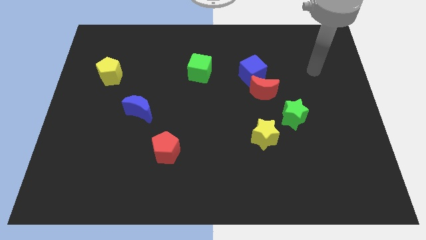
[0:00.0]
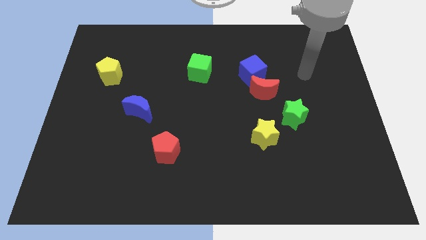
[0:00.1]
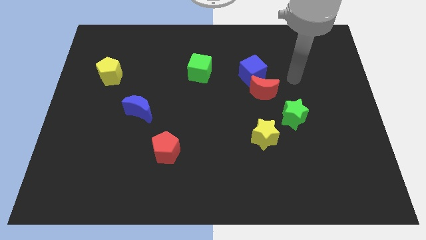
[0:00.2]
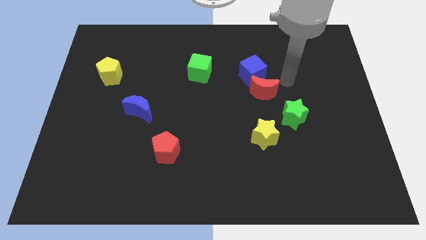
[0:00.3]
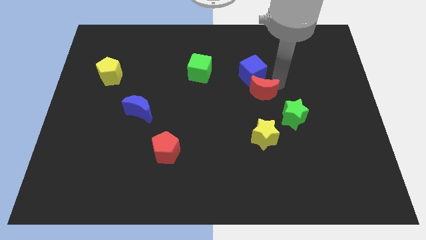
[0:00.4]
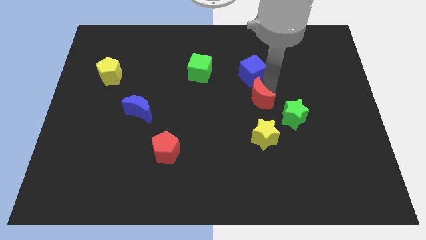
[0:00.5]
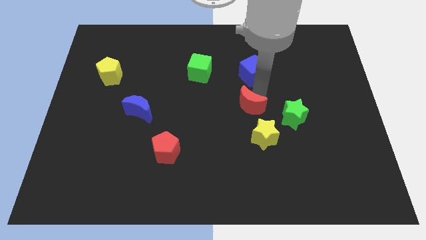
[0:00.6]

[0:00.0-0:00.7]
move the blue cube away from the red moon

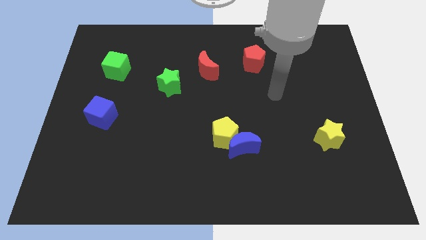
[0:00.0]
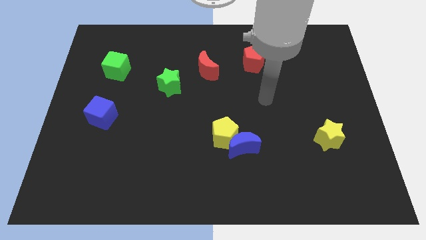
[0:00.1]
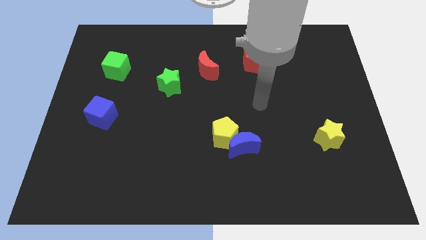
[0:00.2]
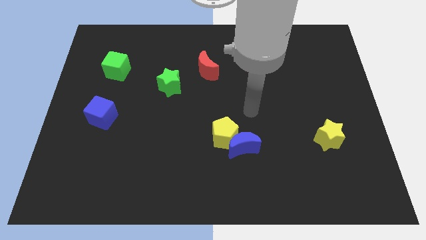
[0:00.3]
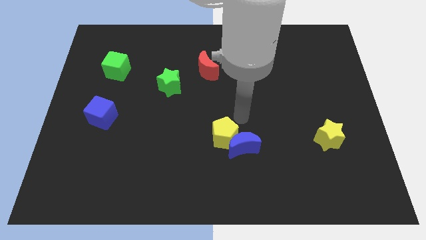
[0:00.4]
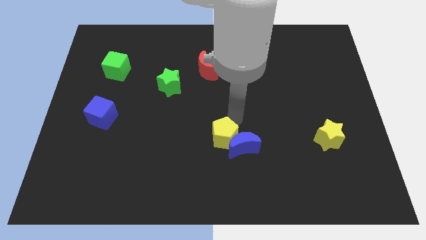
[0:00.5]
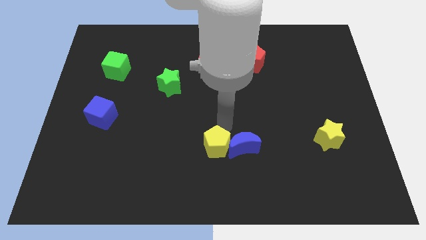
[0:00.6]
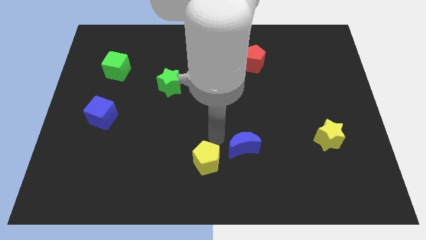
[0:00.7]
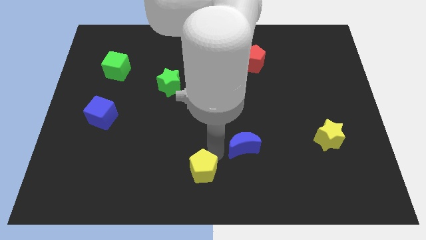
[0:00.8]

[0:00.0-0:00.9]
pull the blue moon apart from the yellow pentagon

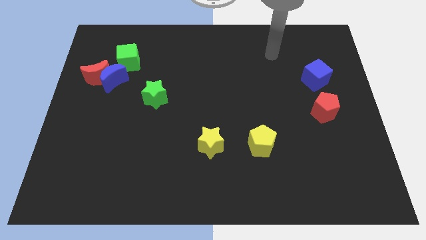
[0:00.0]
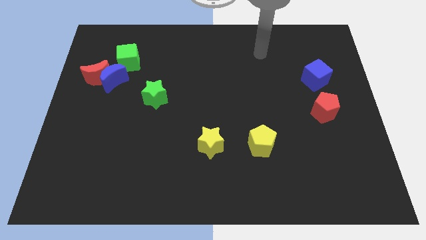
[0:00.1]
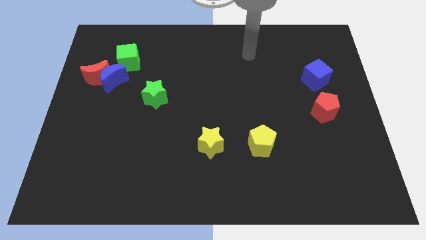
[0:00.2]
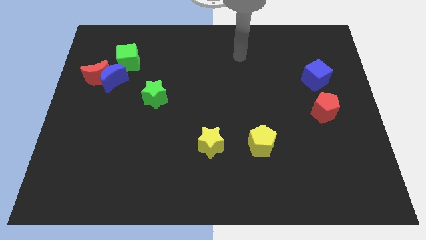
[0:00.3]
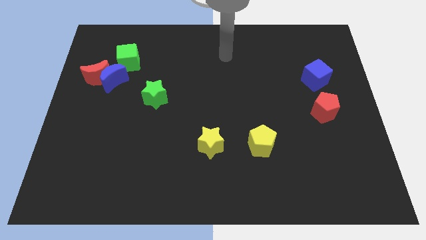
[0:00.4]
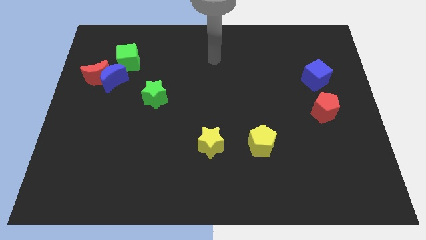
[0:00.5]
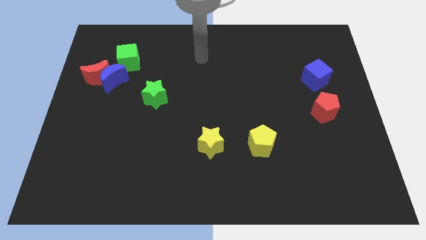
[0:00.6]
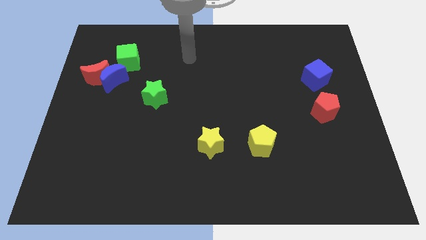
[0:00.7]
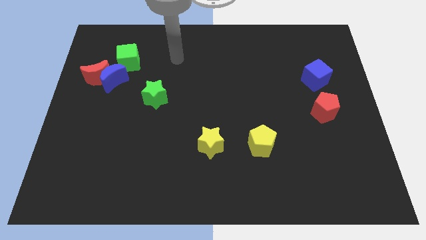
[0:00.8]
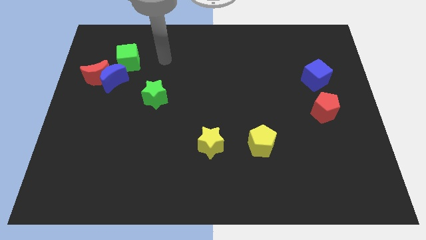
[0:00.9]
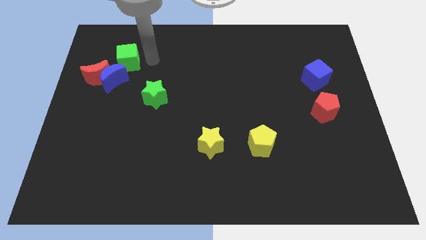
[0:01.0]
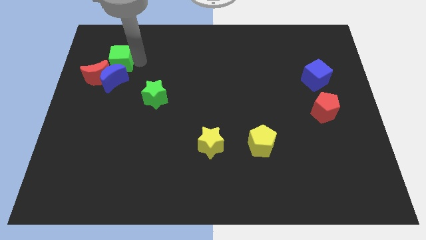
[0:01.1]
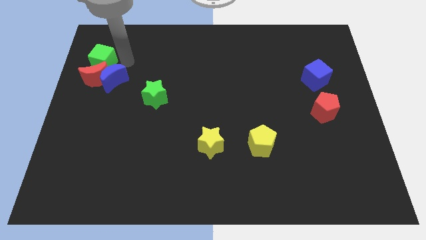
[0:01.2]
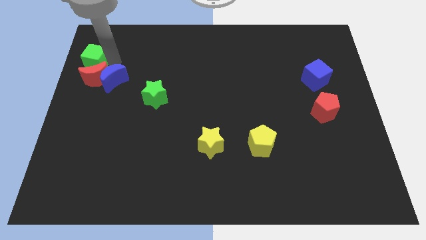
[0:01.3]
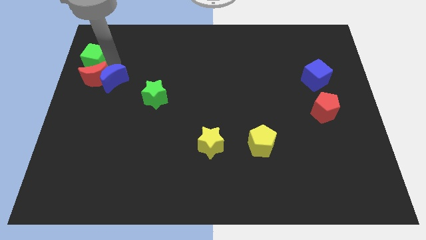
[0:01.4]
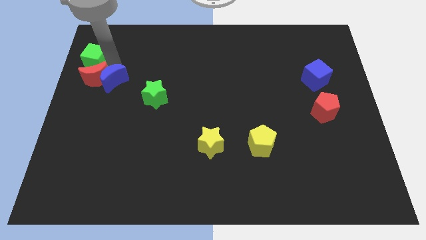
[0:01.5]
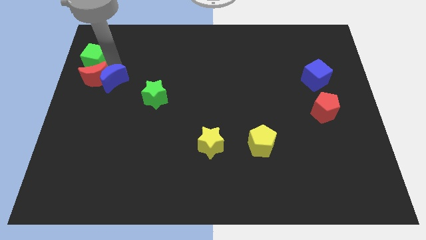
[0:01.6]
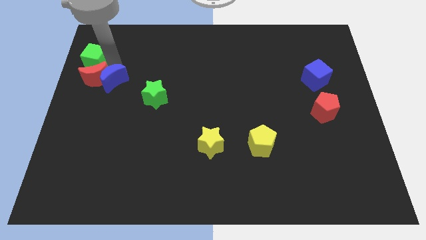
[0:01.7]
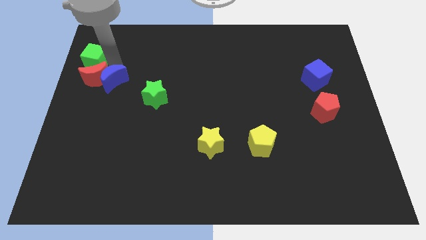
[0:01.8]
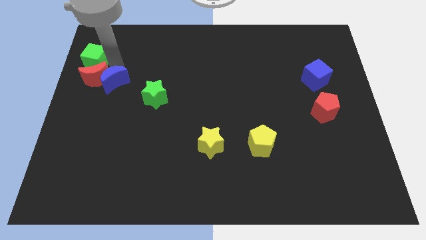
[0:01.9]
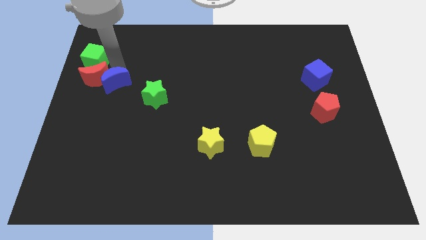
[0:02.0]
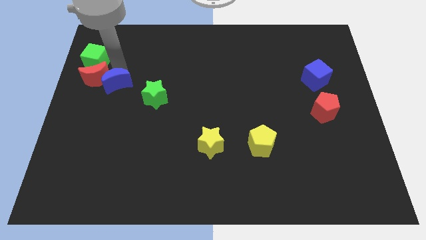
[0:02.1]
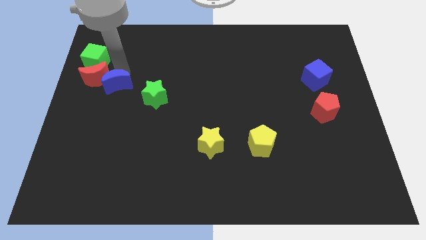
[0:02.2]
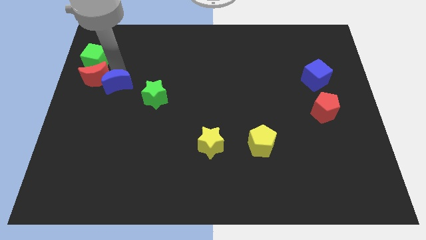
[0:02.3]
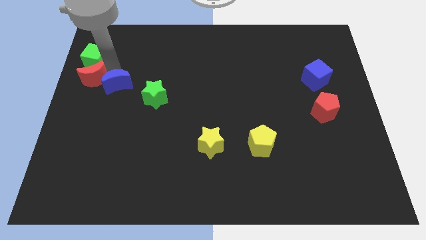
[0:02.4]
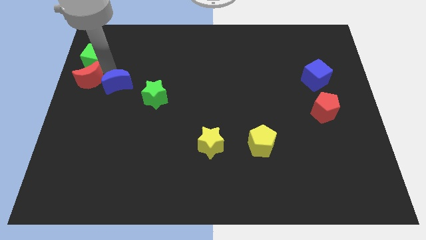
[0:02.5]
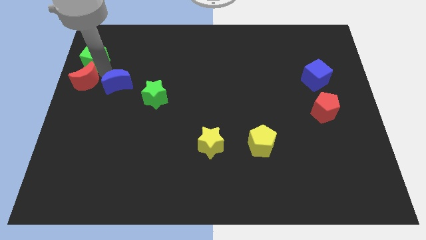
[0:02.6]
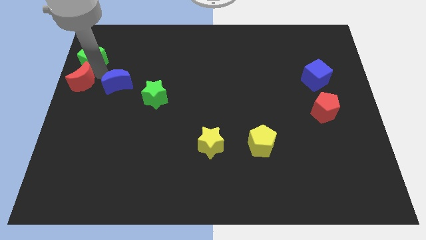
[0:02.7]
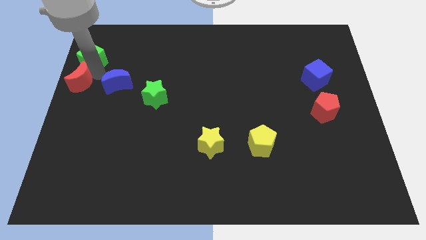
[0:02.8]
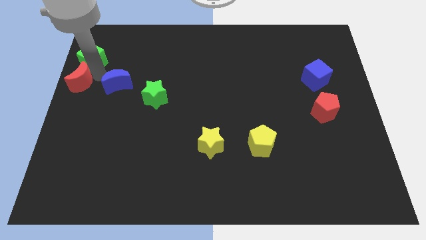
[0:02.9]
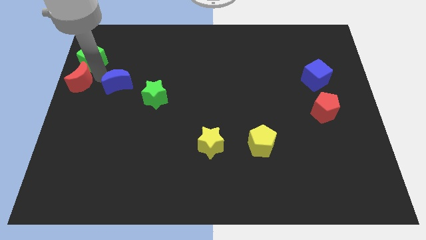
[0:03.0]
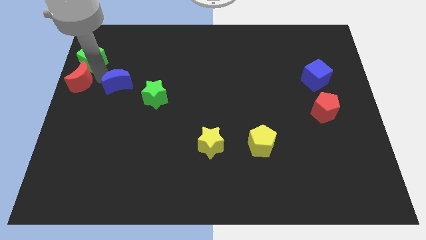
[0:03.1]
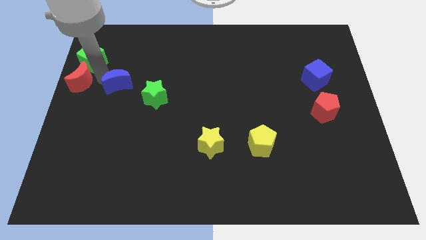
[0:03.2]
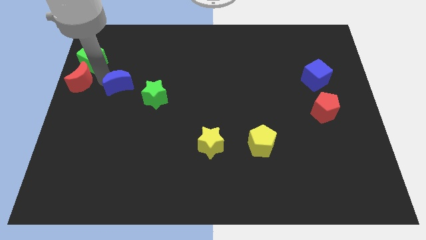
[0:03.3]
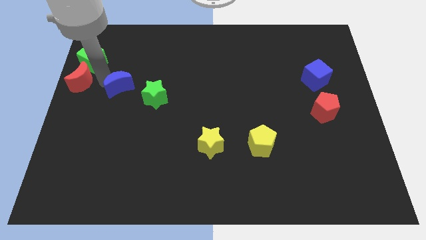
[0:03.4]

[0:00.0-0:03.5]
move the blue moon away from the red moon and green cube

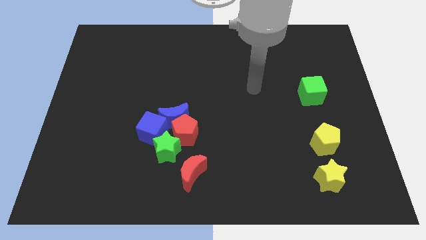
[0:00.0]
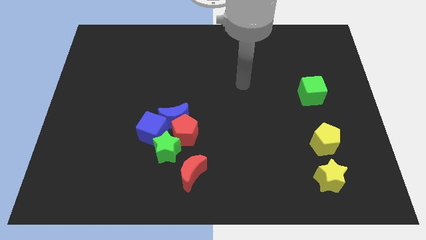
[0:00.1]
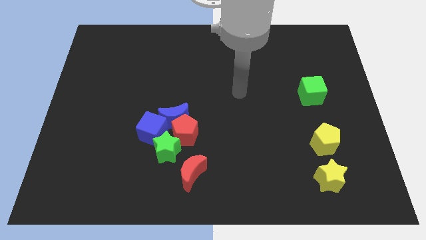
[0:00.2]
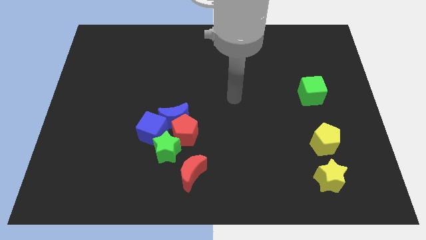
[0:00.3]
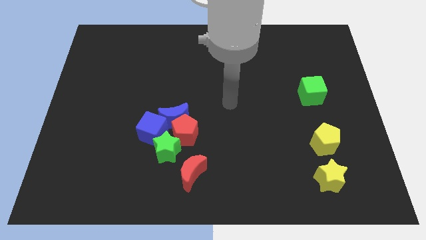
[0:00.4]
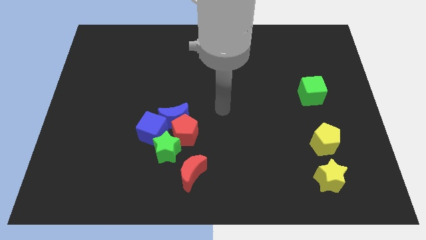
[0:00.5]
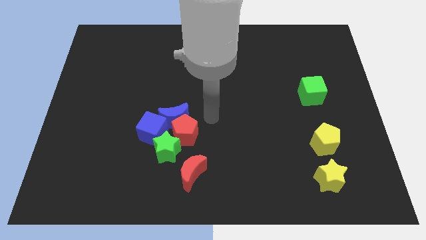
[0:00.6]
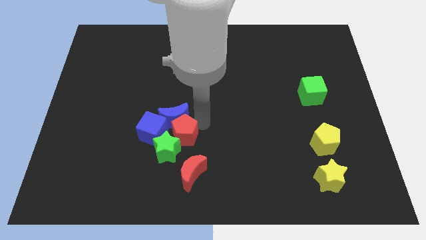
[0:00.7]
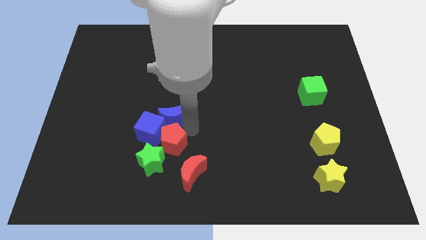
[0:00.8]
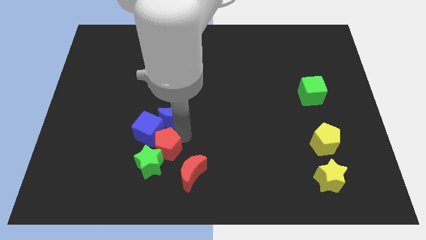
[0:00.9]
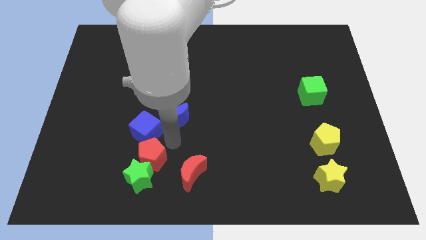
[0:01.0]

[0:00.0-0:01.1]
move the blue moon away from the red pentagon, blue cube, and green star

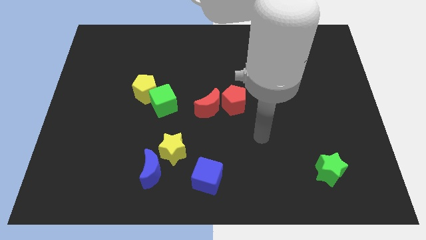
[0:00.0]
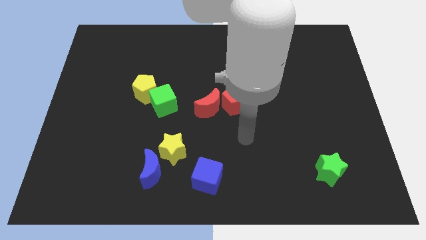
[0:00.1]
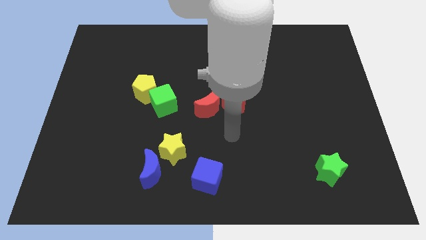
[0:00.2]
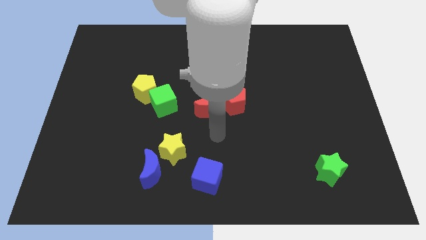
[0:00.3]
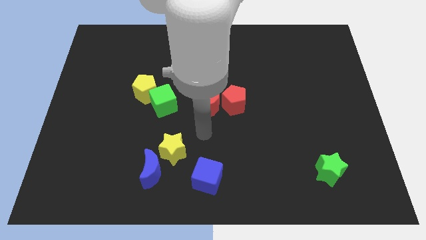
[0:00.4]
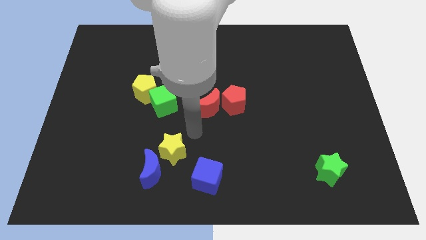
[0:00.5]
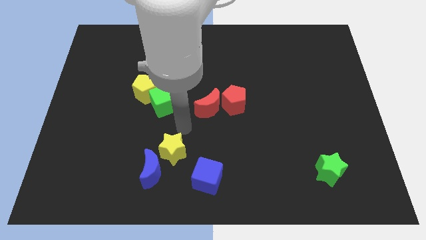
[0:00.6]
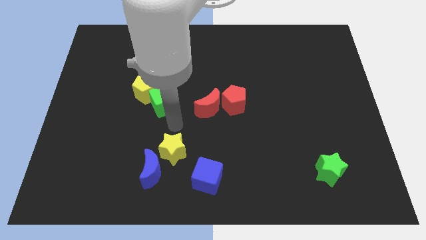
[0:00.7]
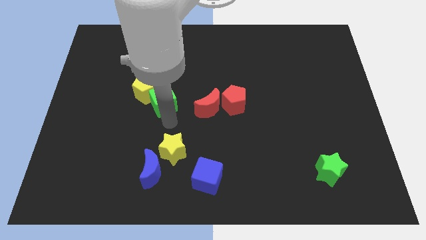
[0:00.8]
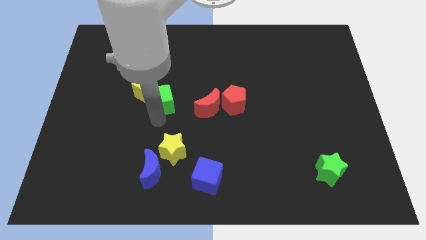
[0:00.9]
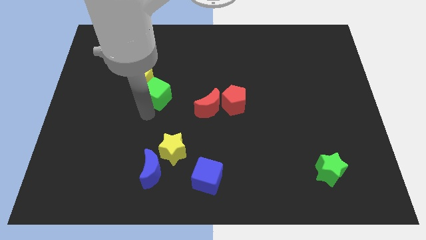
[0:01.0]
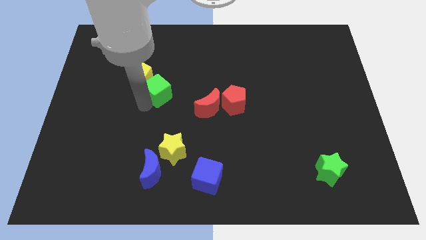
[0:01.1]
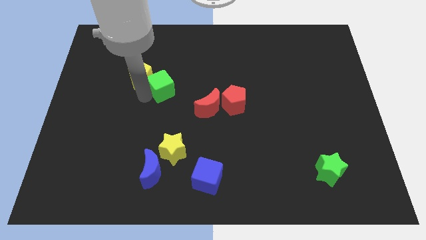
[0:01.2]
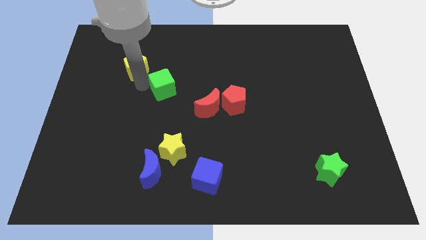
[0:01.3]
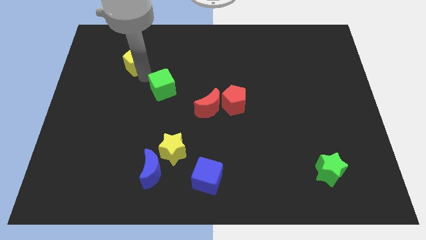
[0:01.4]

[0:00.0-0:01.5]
separate the green cube from the yellow pentagon

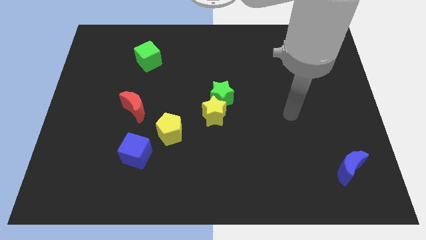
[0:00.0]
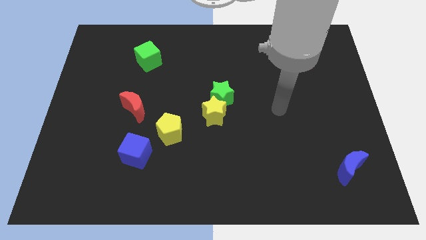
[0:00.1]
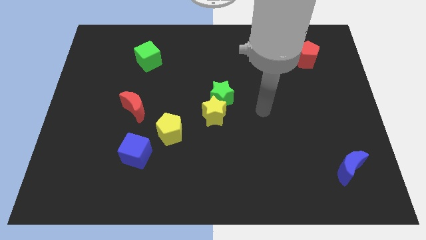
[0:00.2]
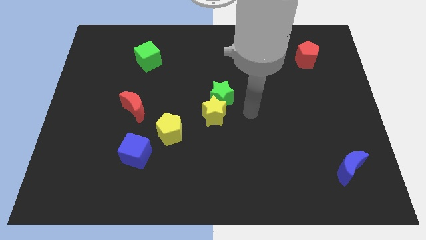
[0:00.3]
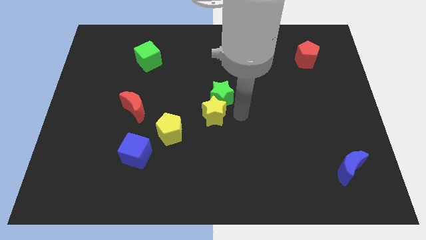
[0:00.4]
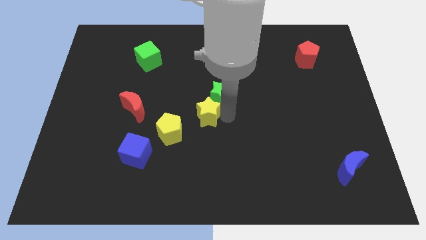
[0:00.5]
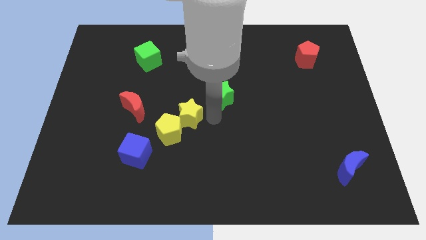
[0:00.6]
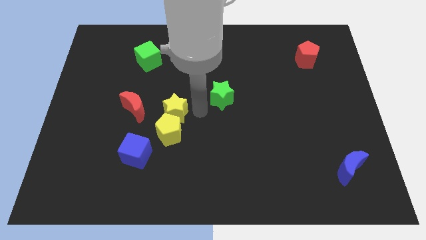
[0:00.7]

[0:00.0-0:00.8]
separate the green star from the yellow star

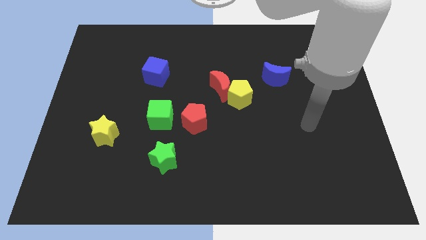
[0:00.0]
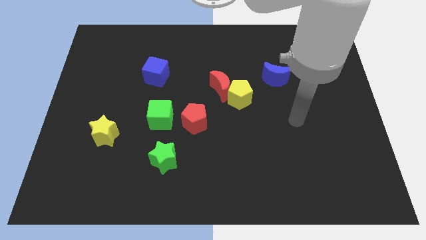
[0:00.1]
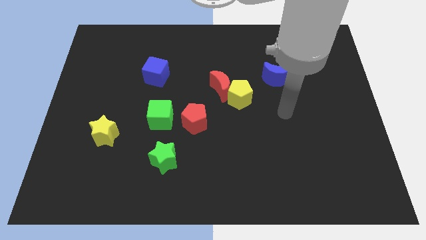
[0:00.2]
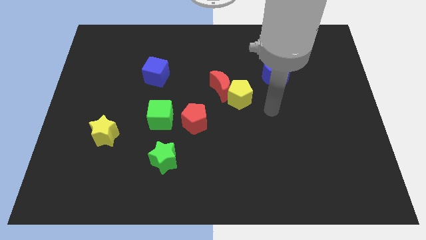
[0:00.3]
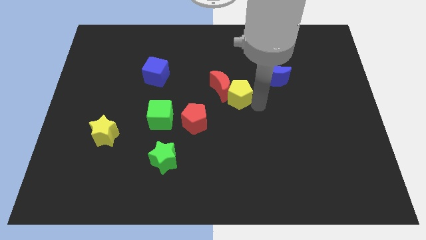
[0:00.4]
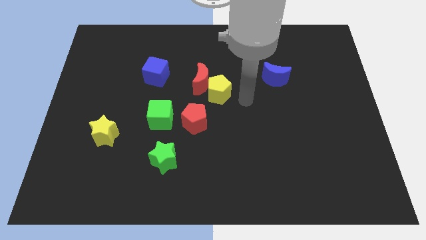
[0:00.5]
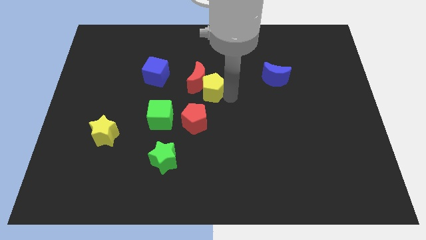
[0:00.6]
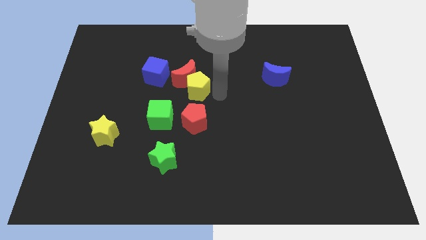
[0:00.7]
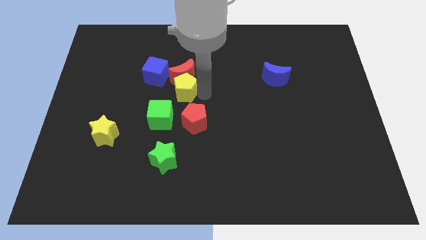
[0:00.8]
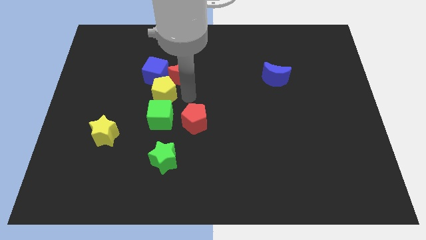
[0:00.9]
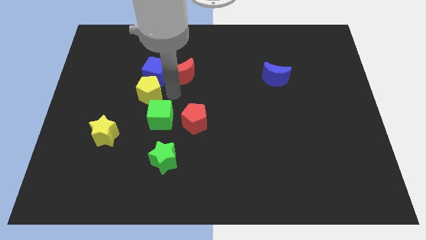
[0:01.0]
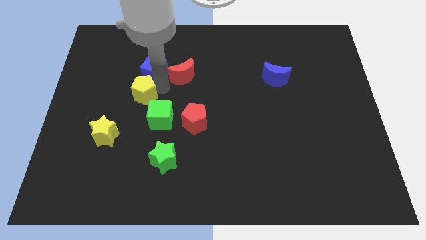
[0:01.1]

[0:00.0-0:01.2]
move the red moon away from the yellow pentagon
